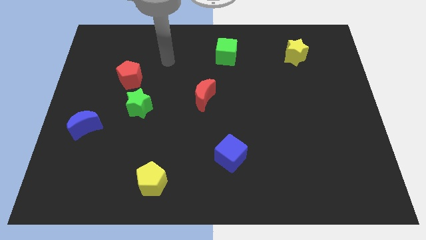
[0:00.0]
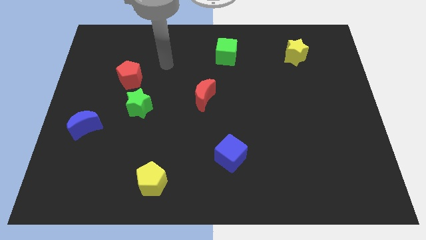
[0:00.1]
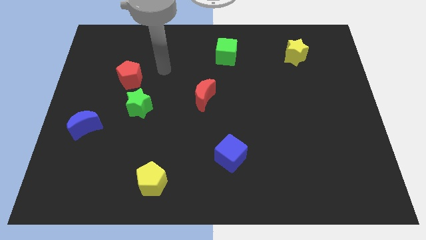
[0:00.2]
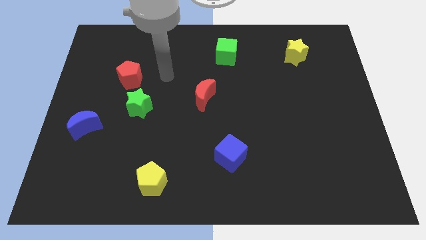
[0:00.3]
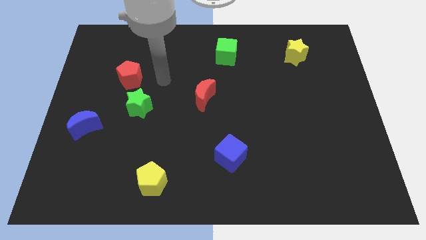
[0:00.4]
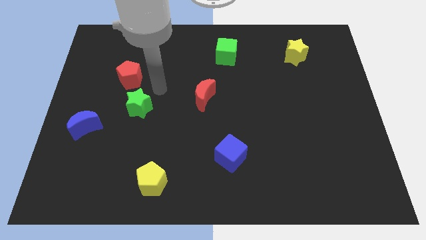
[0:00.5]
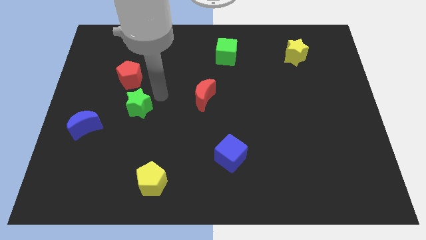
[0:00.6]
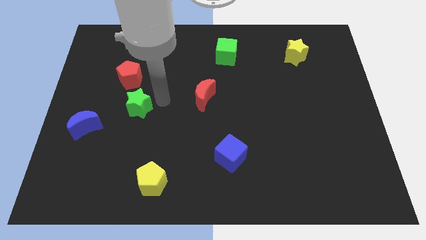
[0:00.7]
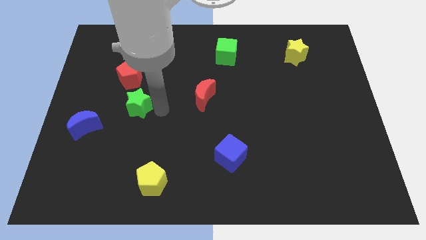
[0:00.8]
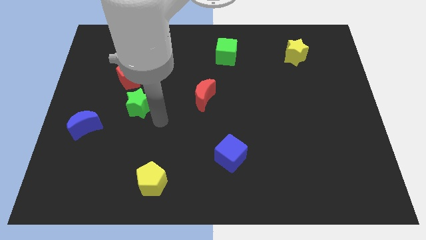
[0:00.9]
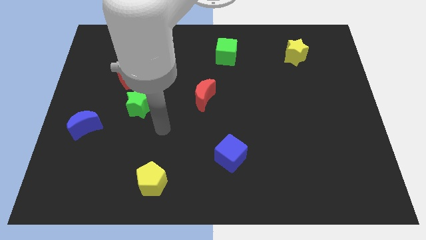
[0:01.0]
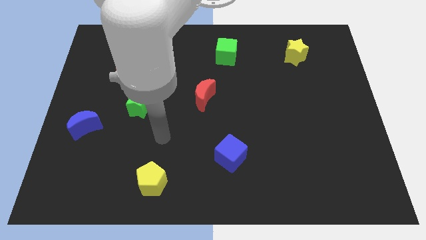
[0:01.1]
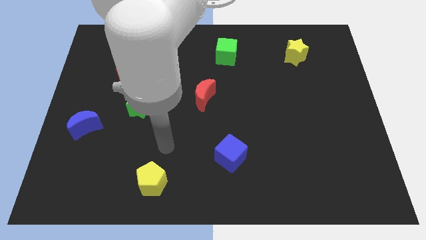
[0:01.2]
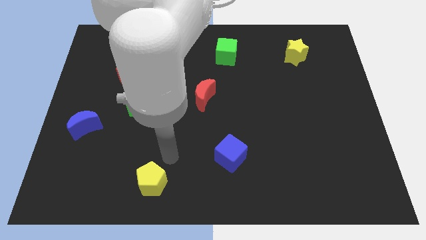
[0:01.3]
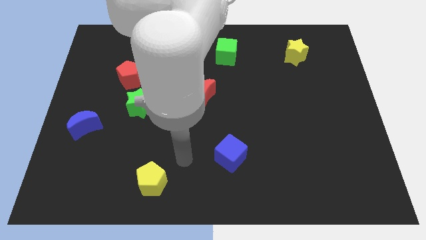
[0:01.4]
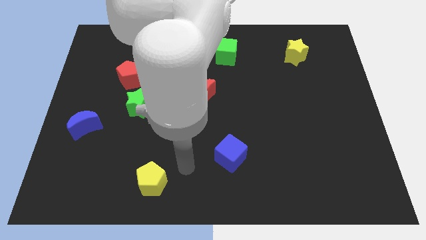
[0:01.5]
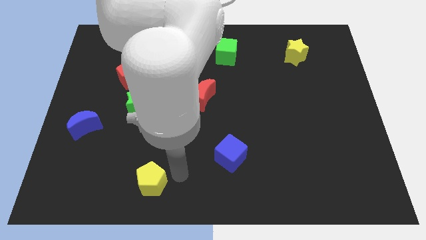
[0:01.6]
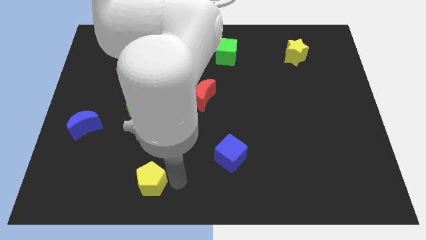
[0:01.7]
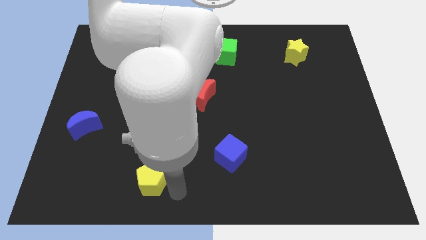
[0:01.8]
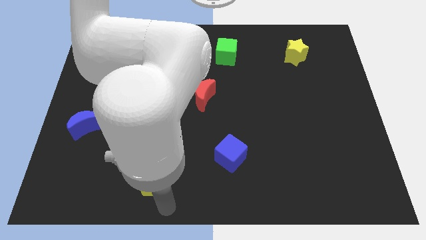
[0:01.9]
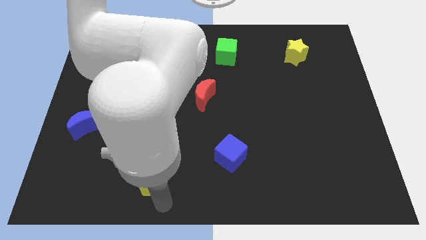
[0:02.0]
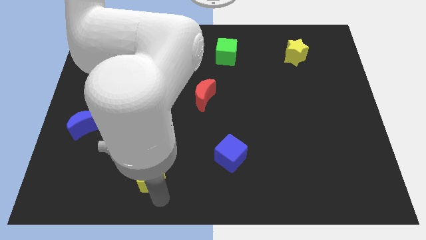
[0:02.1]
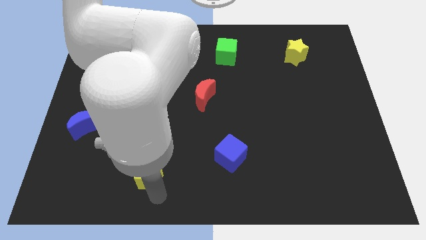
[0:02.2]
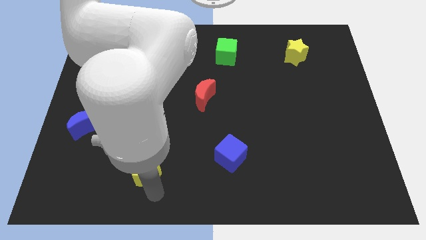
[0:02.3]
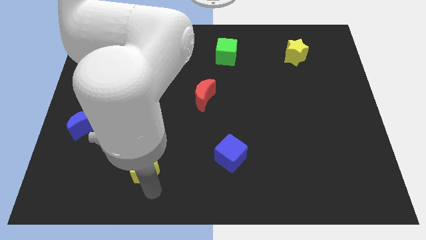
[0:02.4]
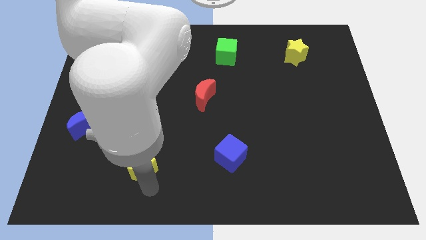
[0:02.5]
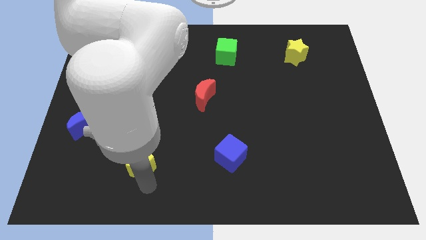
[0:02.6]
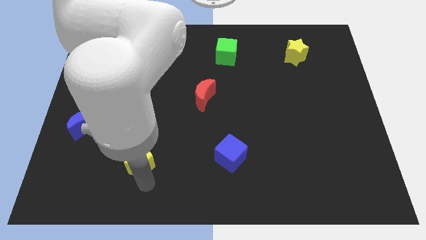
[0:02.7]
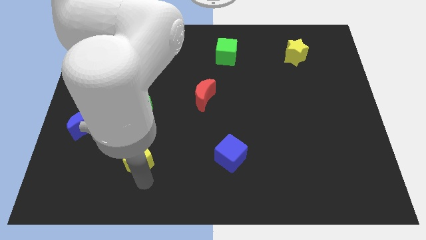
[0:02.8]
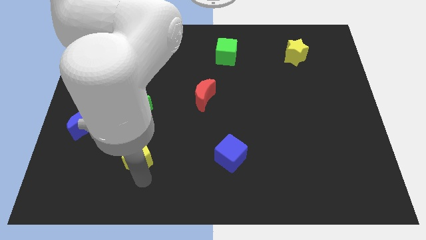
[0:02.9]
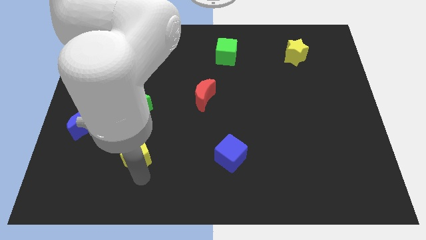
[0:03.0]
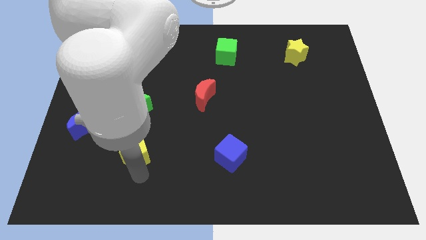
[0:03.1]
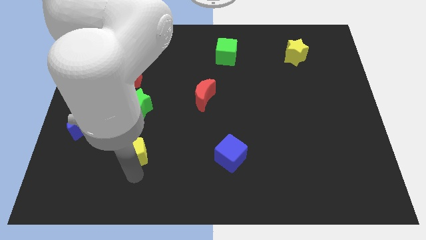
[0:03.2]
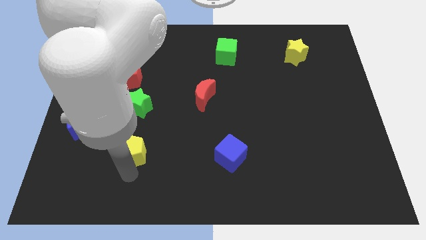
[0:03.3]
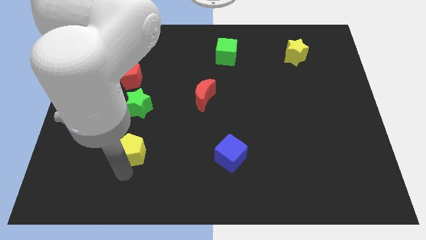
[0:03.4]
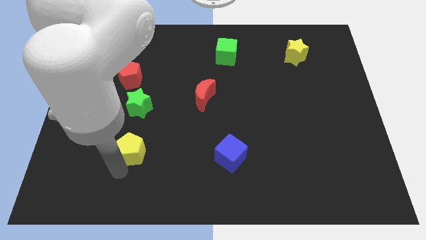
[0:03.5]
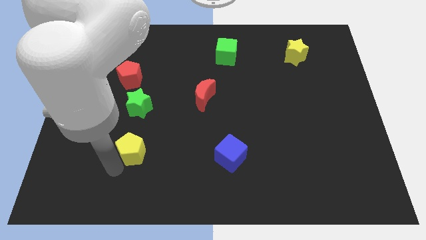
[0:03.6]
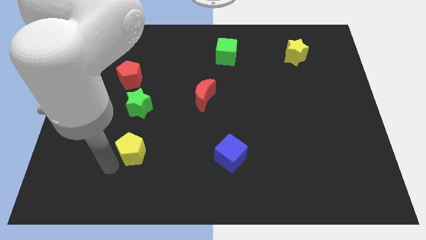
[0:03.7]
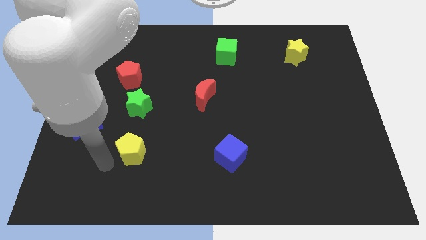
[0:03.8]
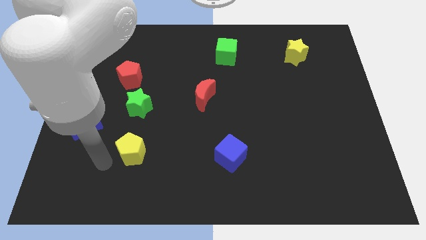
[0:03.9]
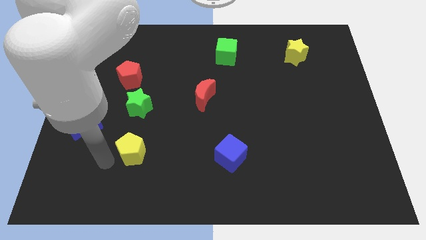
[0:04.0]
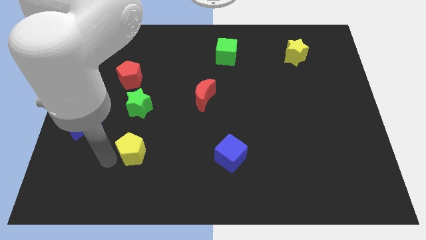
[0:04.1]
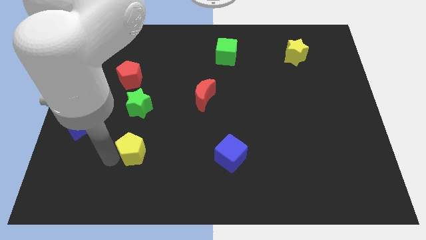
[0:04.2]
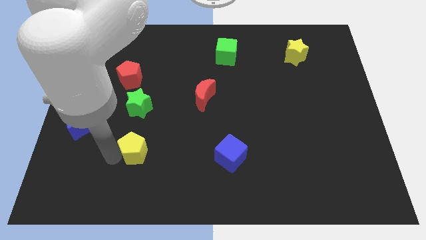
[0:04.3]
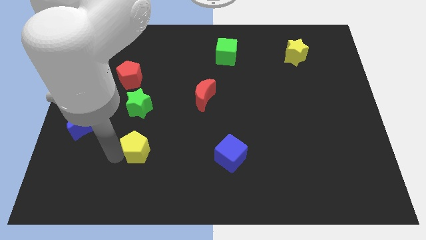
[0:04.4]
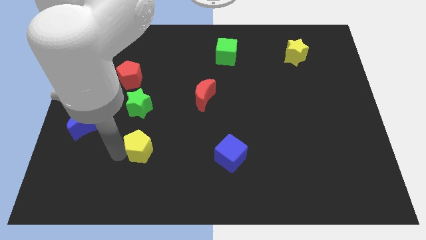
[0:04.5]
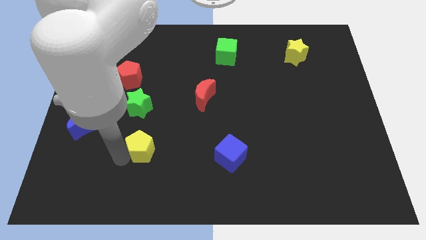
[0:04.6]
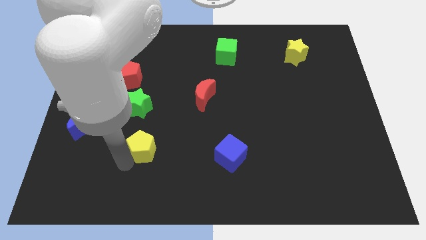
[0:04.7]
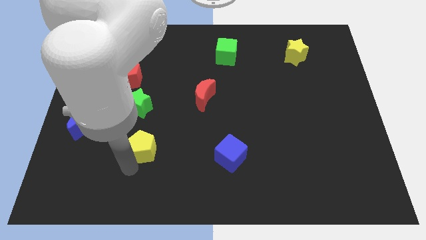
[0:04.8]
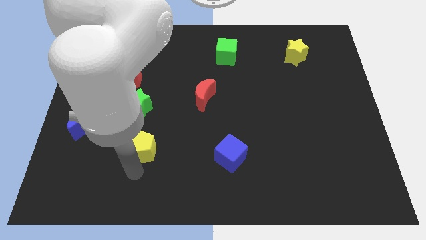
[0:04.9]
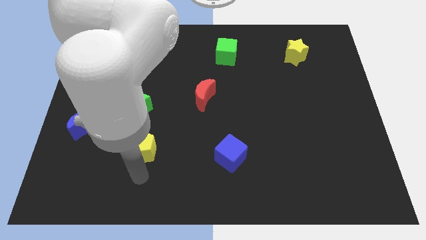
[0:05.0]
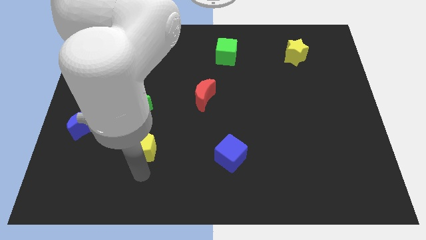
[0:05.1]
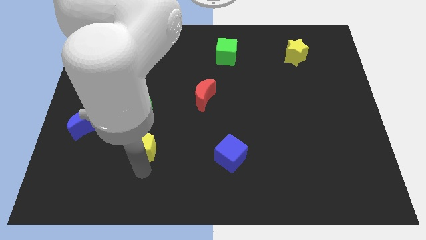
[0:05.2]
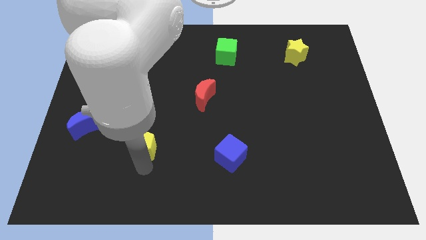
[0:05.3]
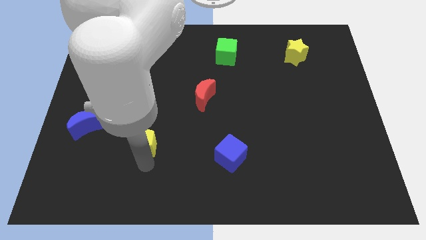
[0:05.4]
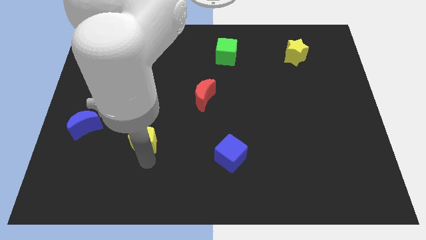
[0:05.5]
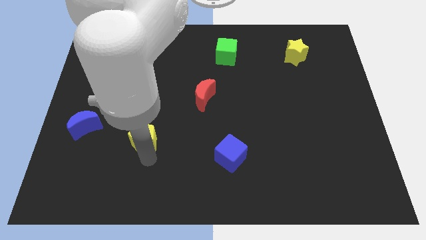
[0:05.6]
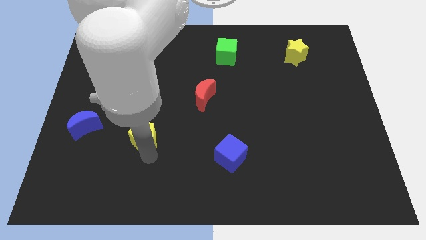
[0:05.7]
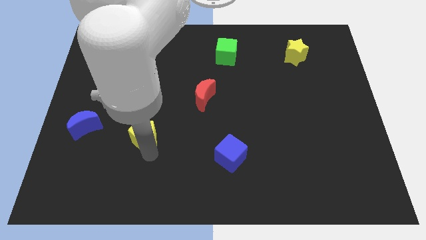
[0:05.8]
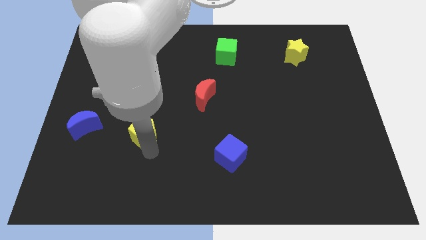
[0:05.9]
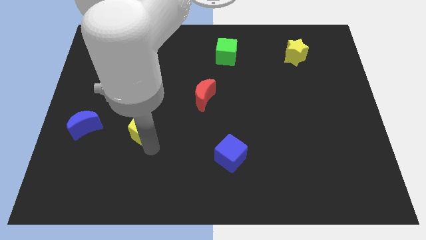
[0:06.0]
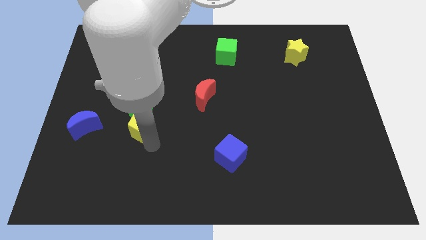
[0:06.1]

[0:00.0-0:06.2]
move the yellow pentagon towards the green star
